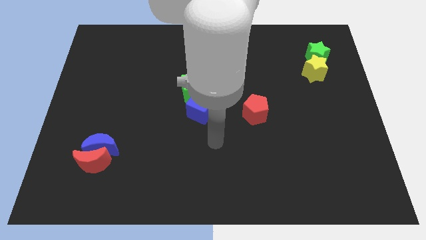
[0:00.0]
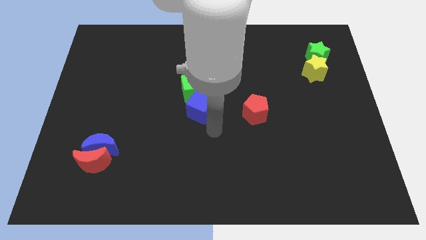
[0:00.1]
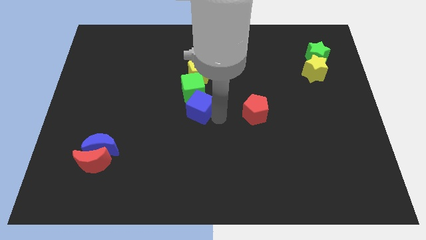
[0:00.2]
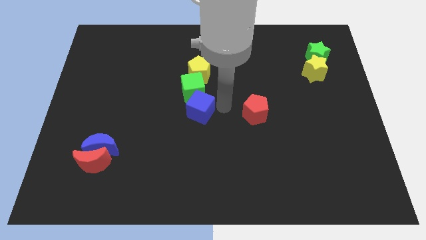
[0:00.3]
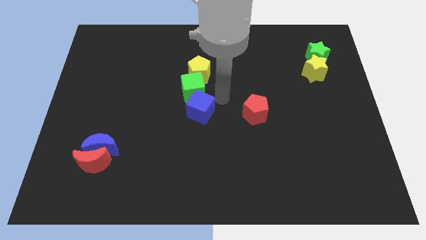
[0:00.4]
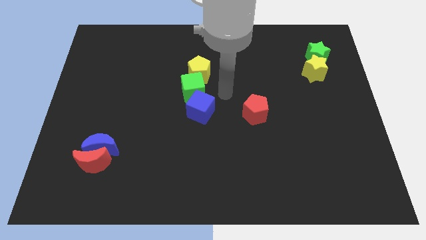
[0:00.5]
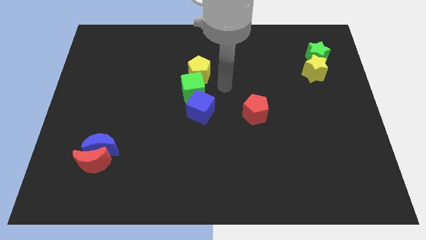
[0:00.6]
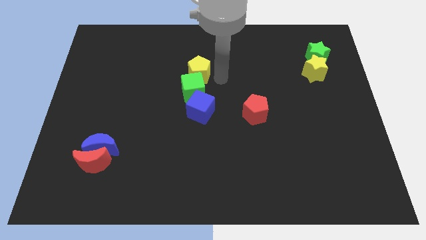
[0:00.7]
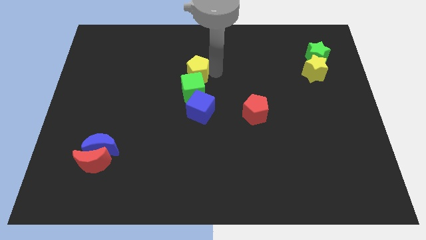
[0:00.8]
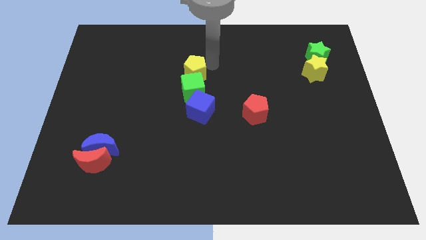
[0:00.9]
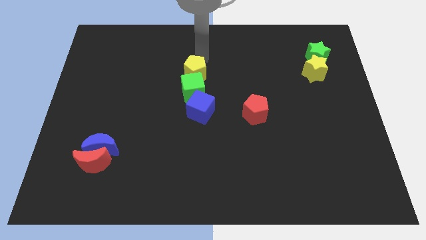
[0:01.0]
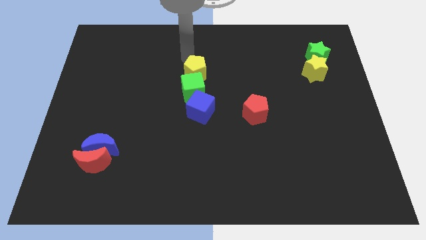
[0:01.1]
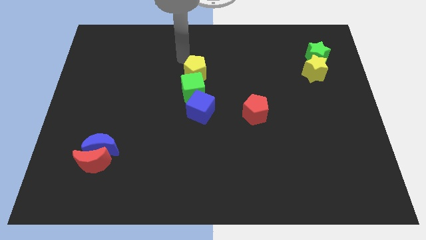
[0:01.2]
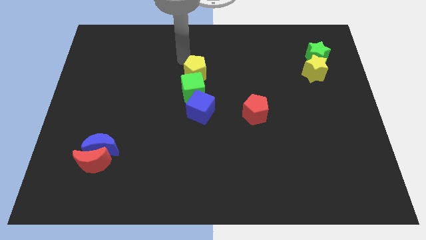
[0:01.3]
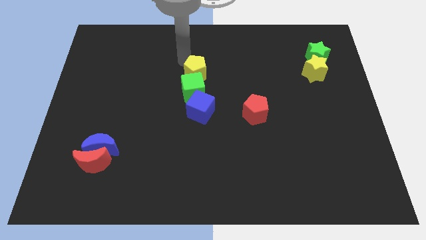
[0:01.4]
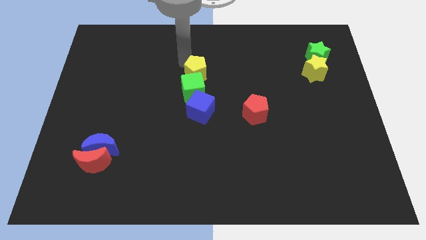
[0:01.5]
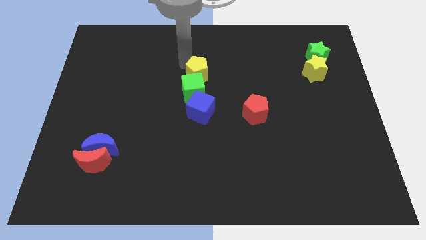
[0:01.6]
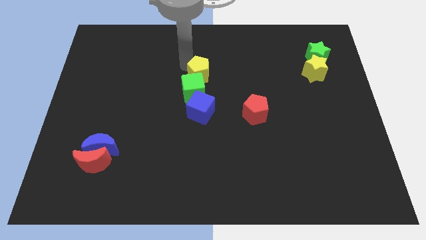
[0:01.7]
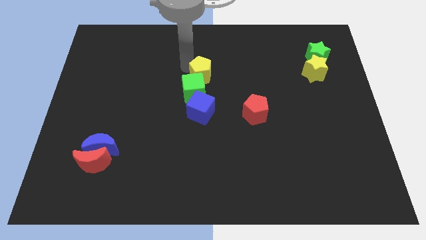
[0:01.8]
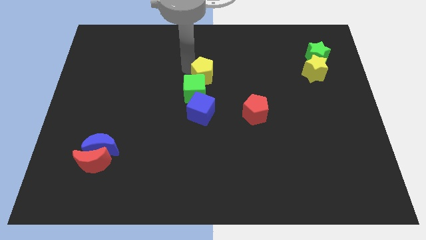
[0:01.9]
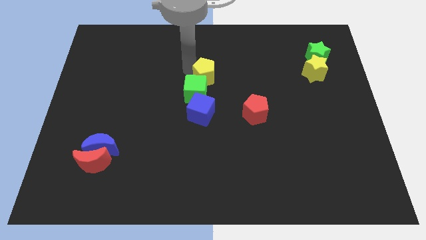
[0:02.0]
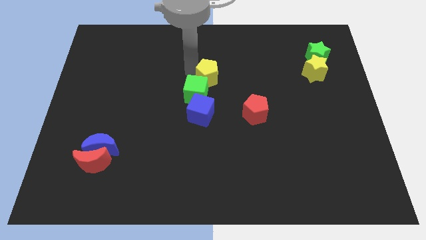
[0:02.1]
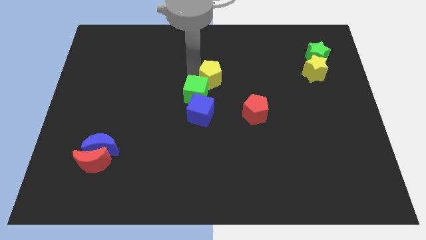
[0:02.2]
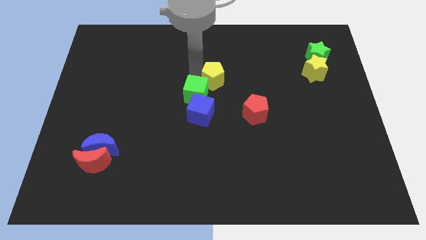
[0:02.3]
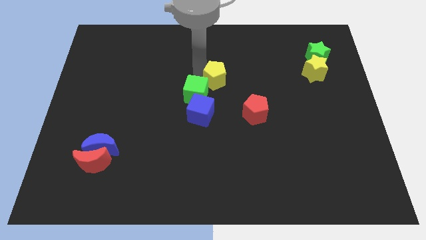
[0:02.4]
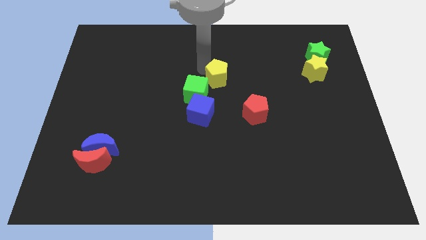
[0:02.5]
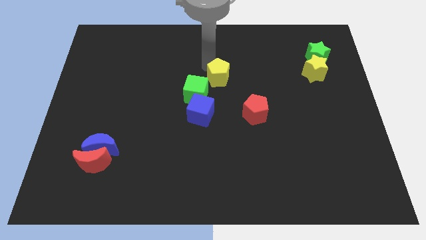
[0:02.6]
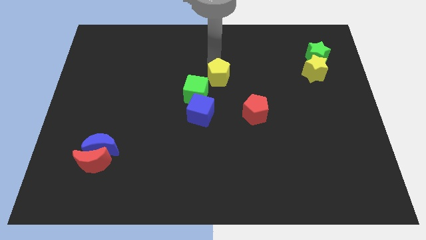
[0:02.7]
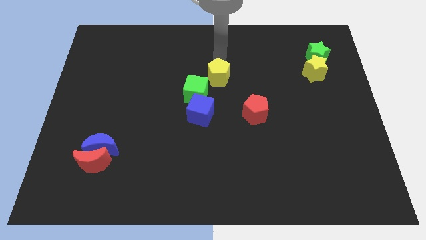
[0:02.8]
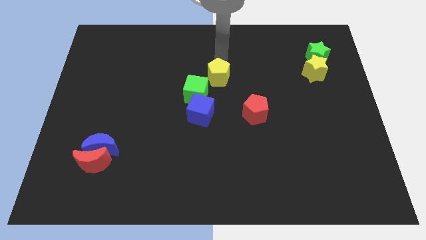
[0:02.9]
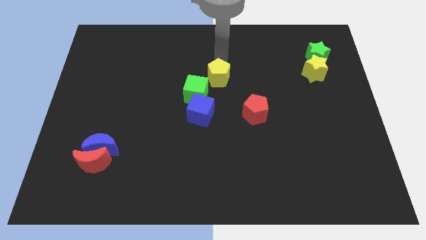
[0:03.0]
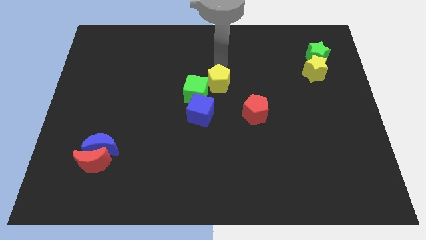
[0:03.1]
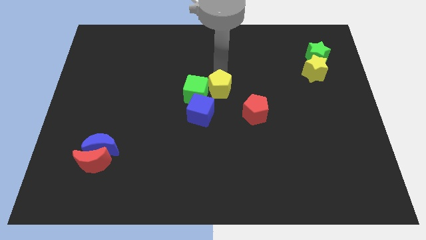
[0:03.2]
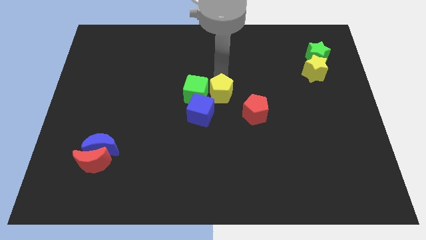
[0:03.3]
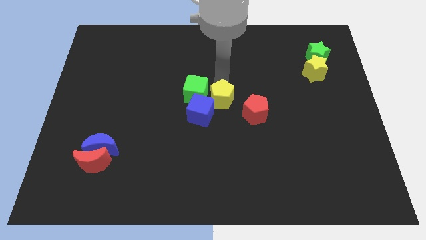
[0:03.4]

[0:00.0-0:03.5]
move the yellow pentagon a little bit downwards

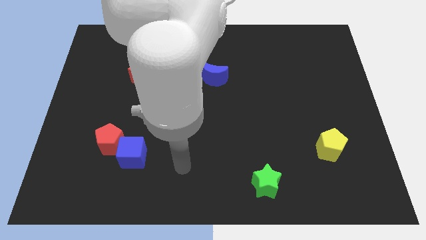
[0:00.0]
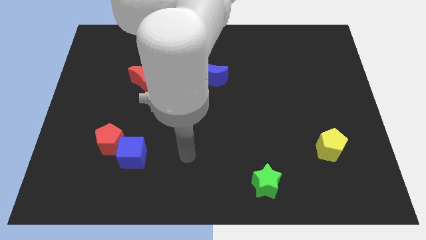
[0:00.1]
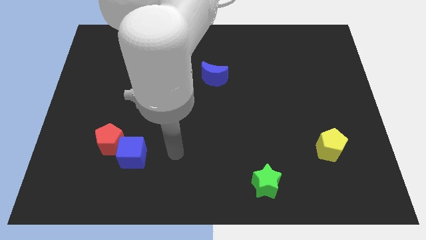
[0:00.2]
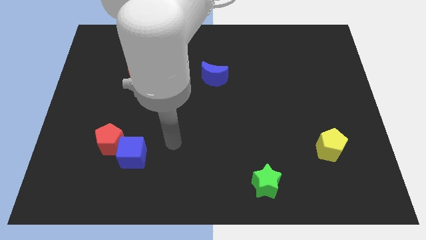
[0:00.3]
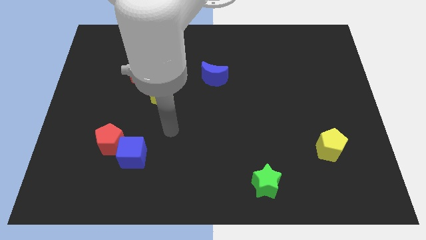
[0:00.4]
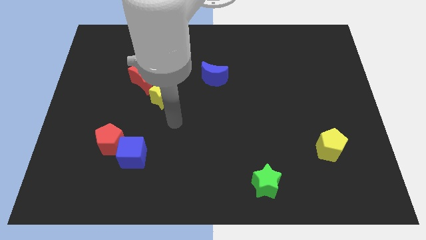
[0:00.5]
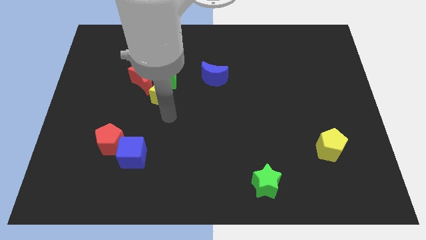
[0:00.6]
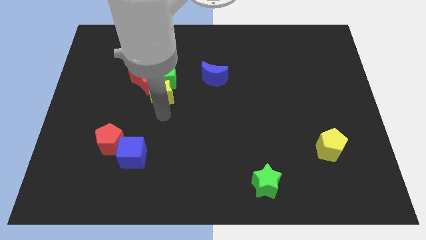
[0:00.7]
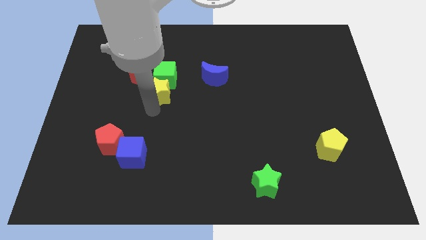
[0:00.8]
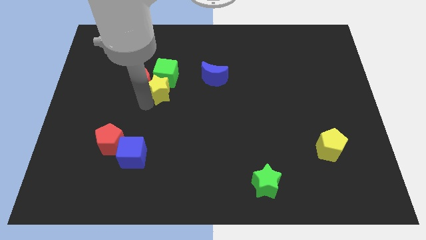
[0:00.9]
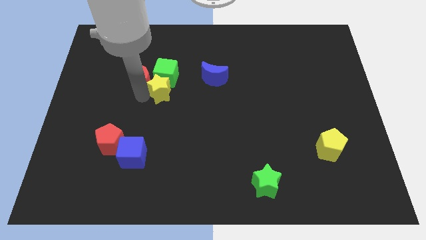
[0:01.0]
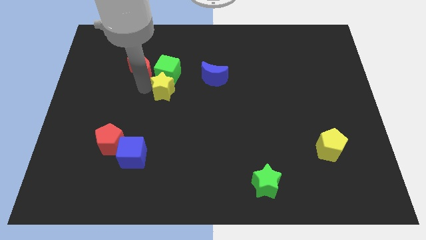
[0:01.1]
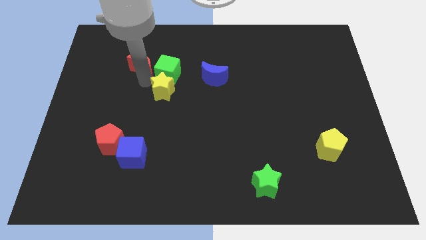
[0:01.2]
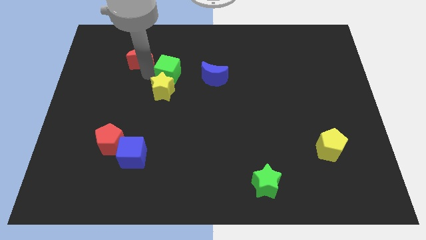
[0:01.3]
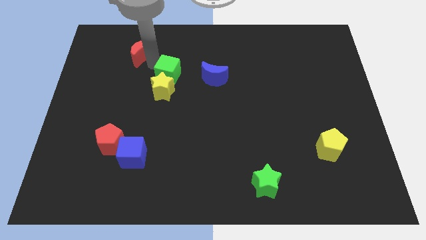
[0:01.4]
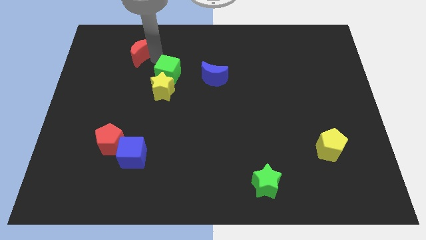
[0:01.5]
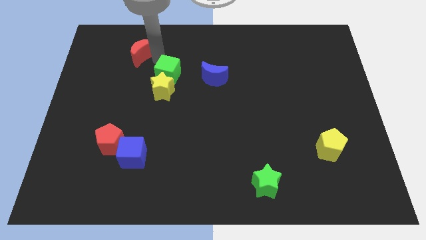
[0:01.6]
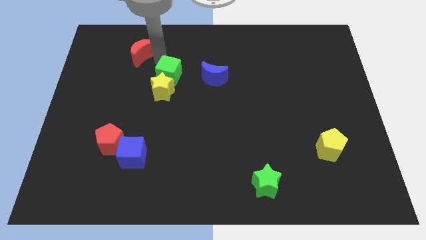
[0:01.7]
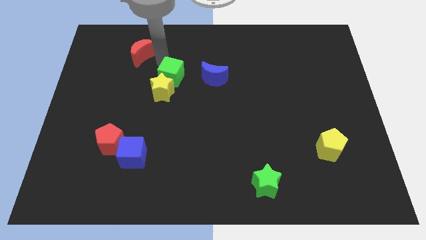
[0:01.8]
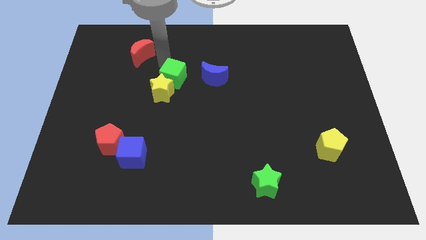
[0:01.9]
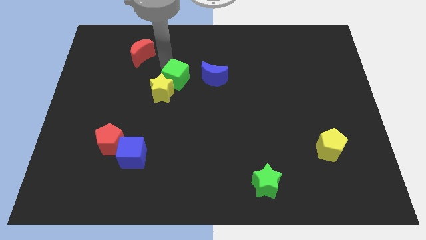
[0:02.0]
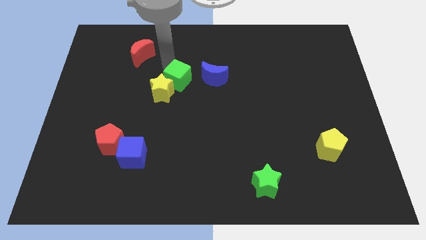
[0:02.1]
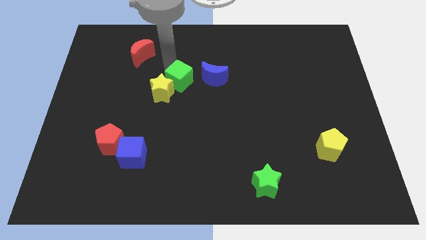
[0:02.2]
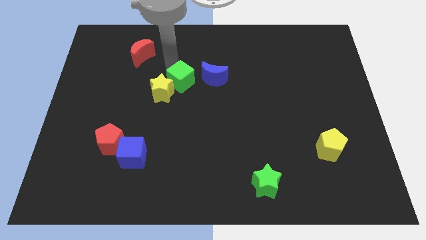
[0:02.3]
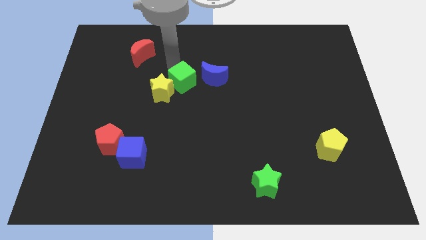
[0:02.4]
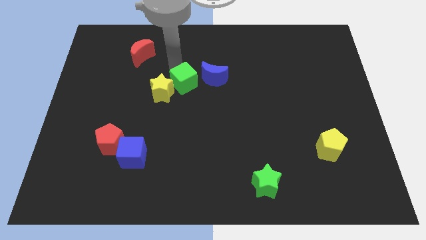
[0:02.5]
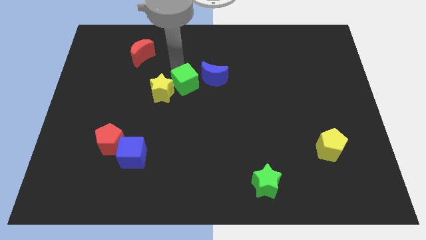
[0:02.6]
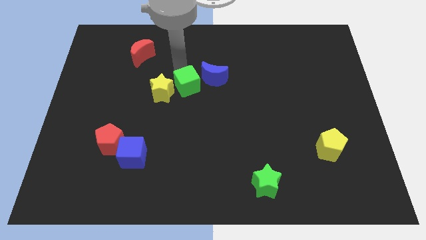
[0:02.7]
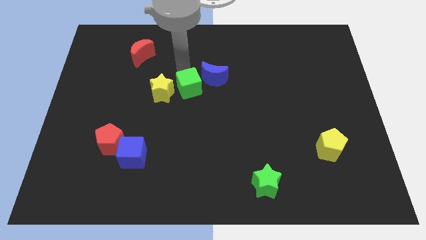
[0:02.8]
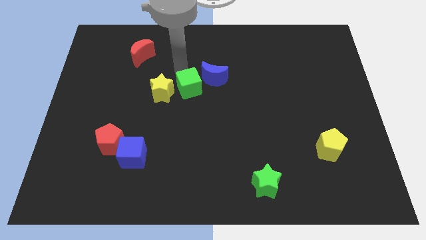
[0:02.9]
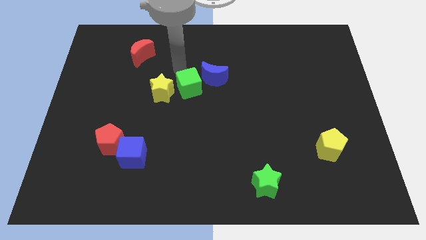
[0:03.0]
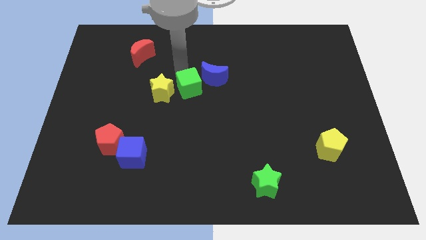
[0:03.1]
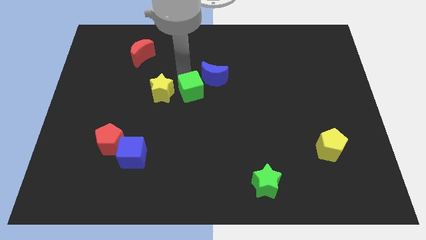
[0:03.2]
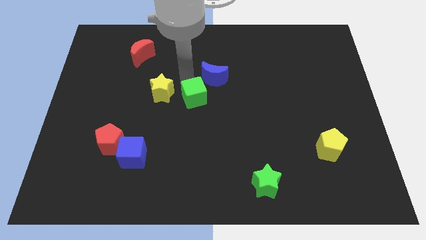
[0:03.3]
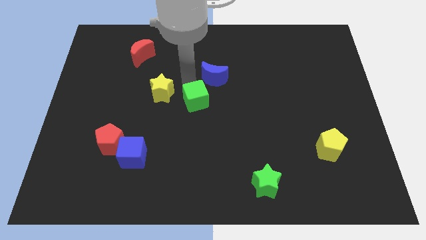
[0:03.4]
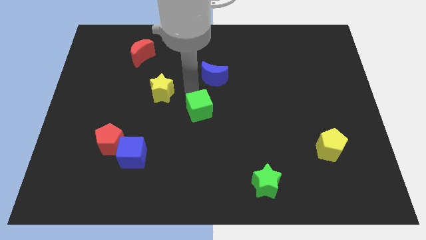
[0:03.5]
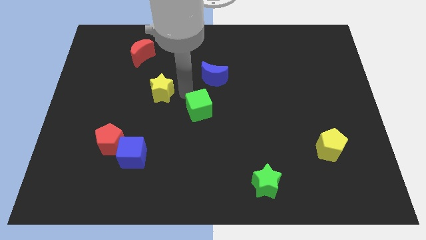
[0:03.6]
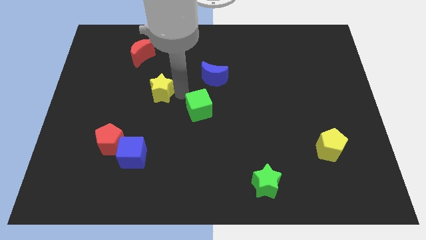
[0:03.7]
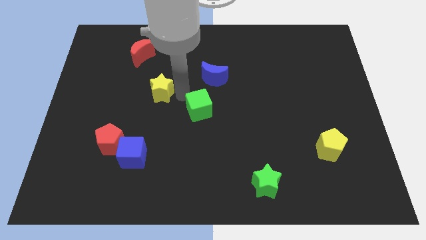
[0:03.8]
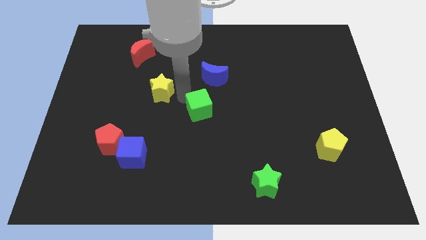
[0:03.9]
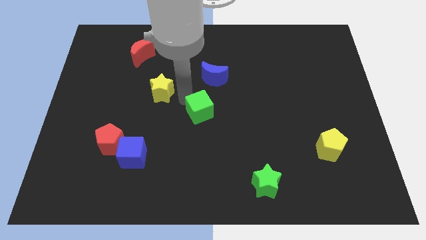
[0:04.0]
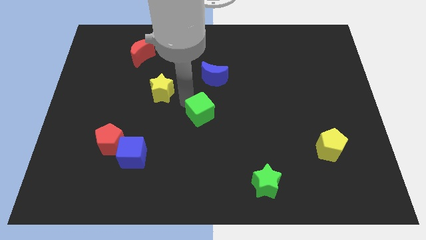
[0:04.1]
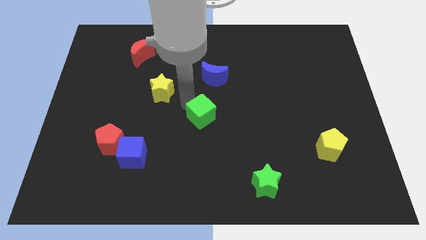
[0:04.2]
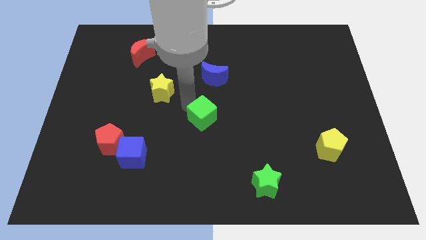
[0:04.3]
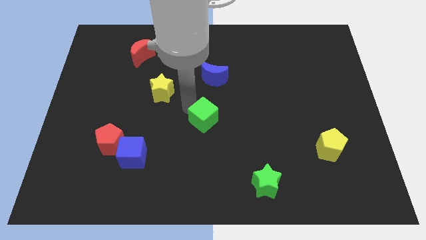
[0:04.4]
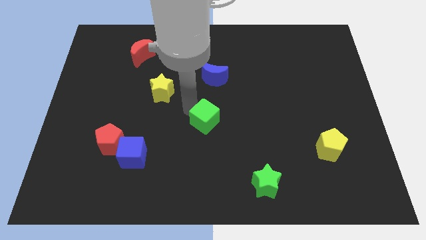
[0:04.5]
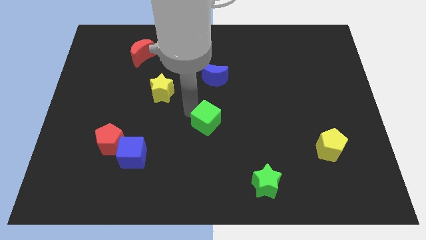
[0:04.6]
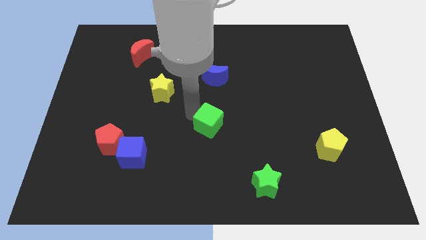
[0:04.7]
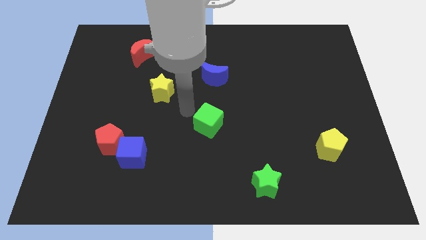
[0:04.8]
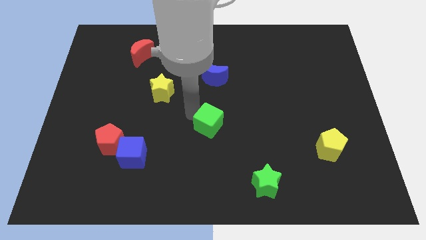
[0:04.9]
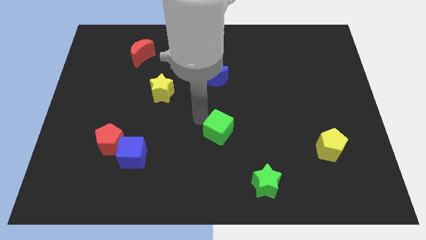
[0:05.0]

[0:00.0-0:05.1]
slide the green cube down and to the right
